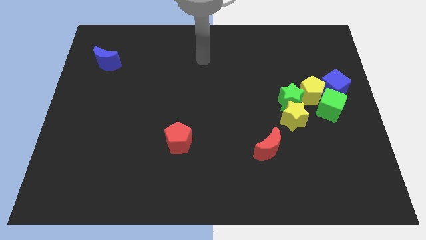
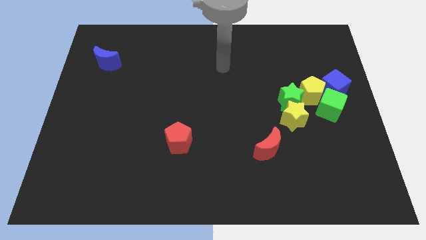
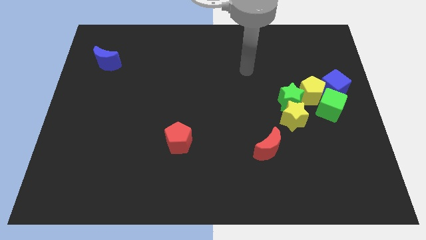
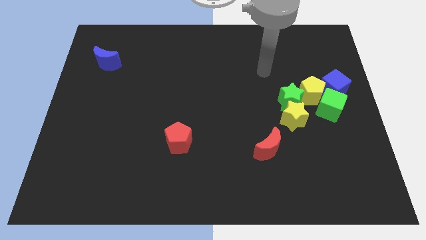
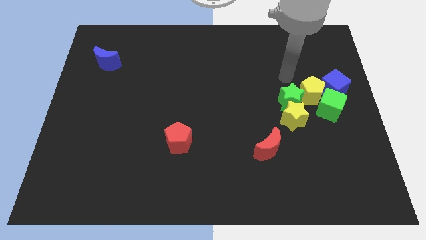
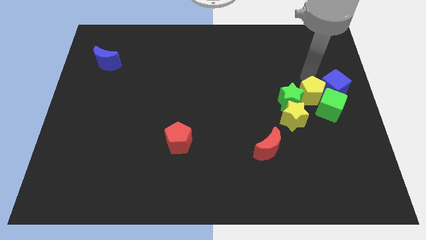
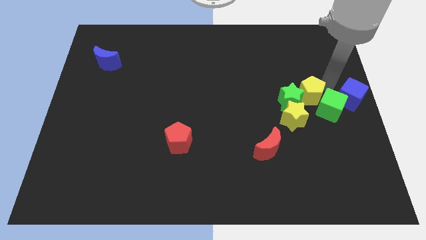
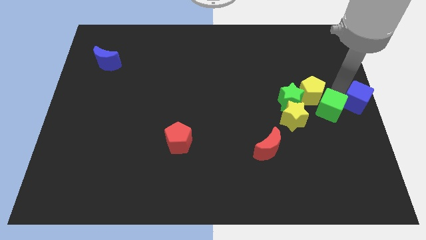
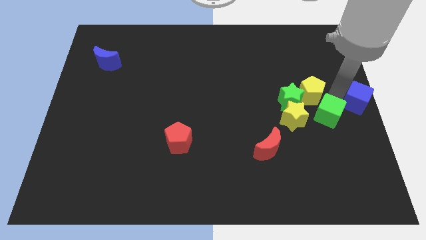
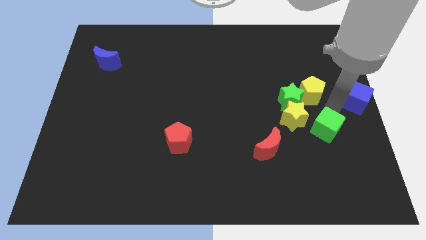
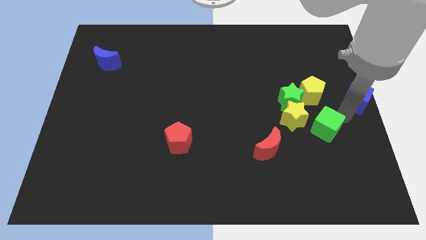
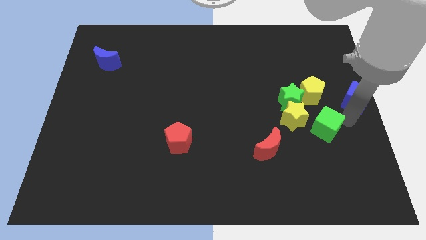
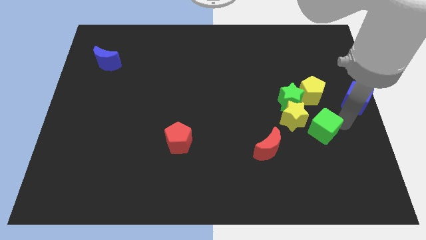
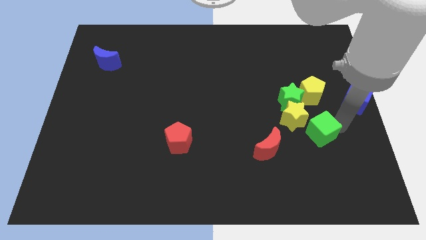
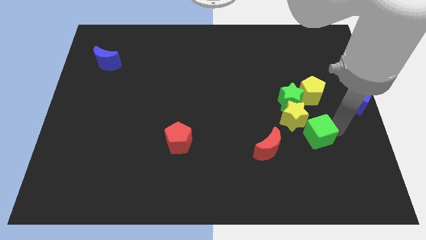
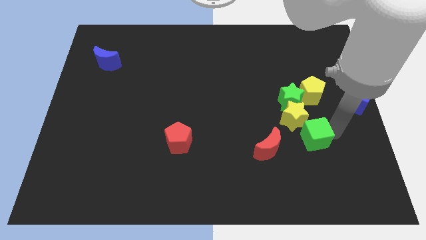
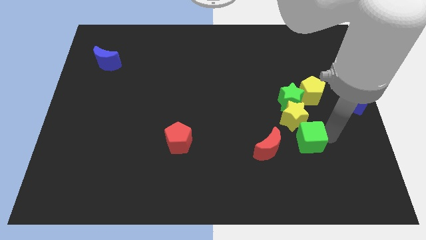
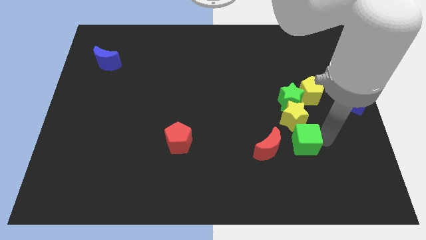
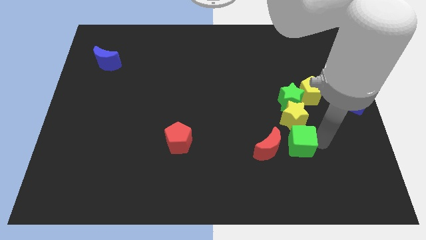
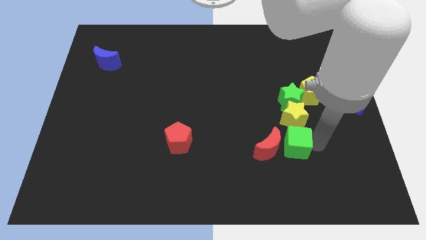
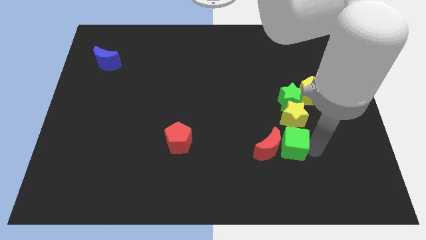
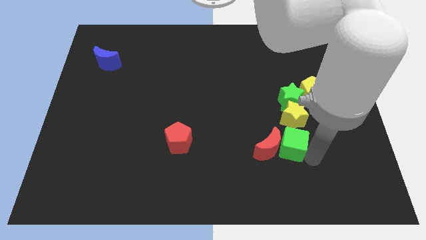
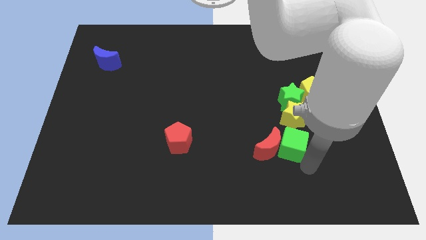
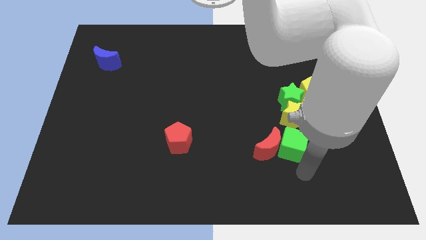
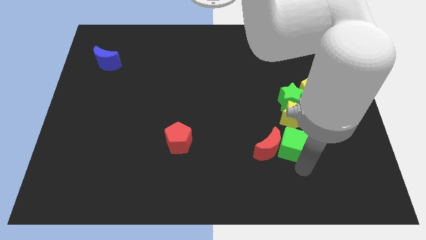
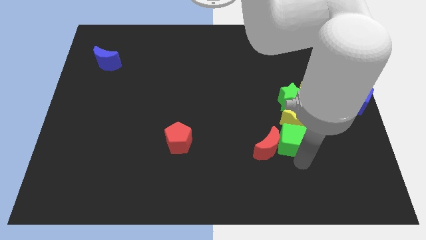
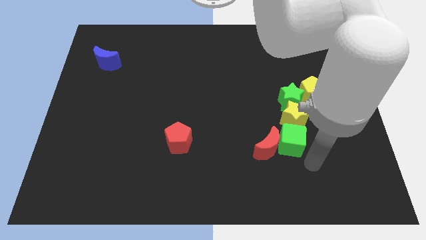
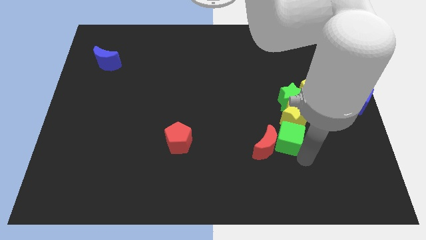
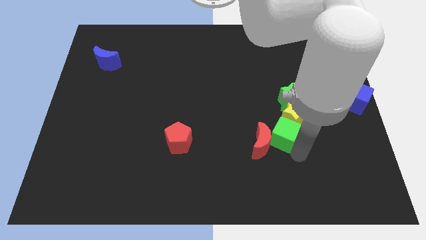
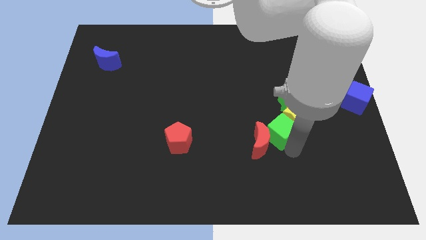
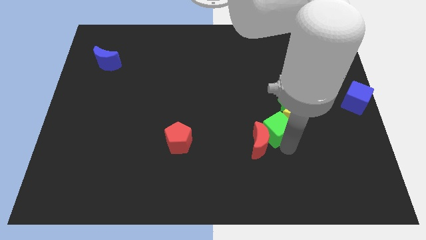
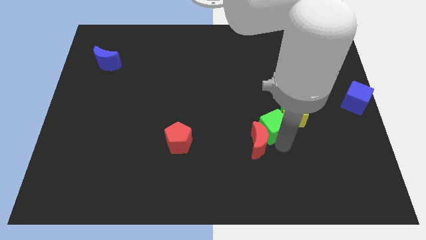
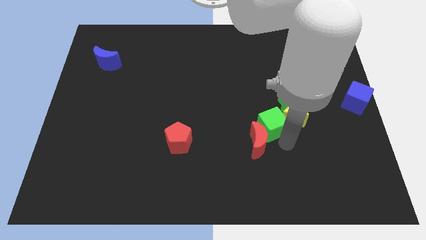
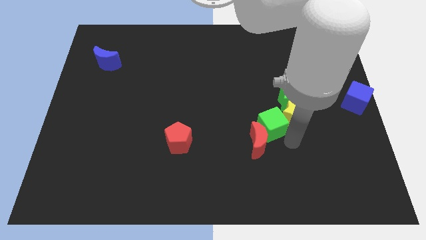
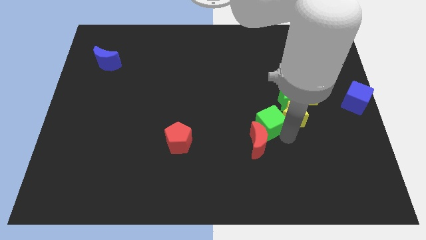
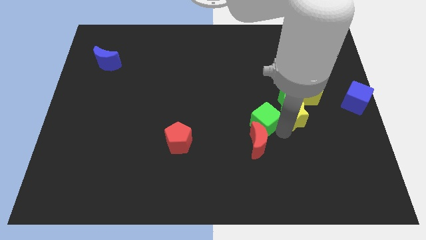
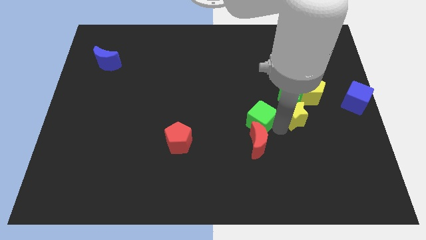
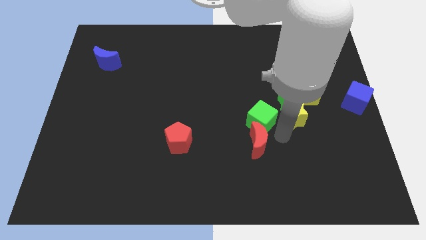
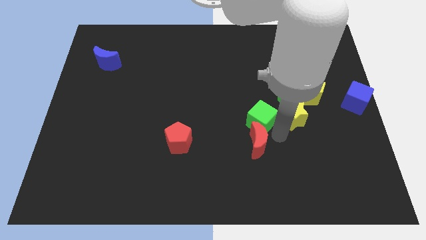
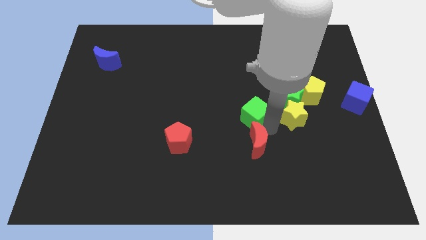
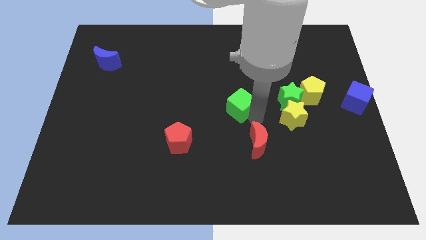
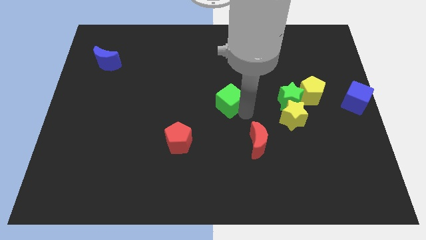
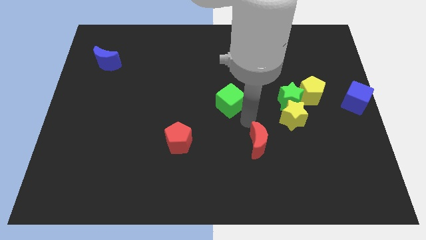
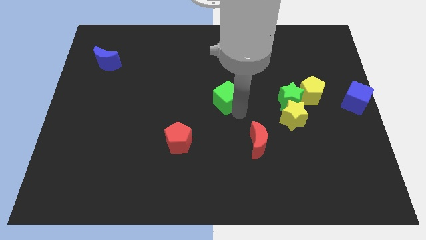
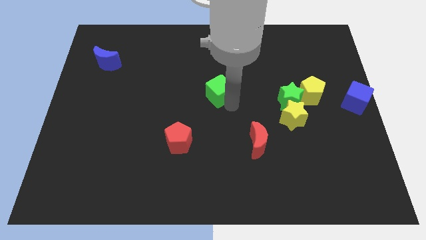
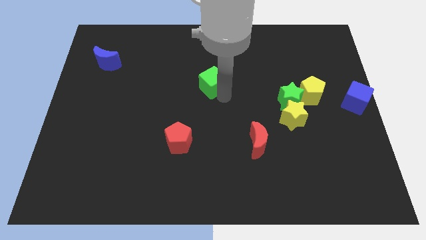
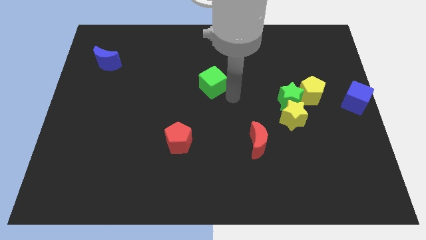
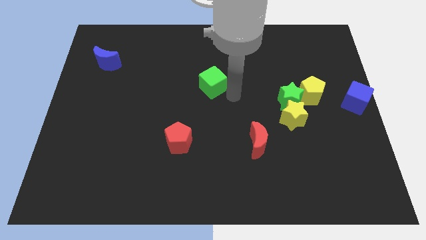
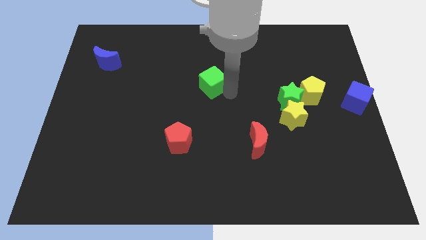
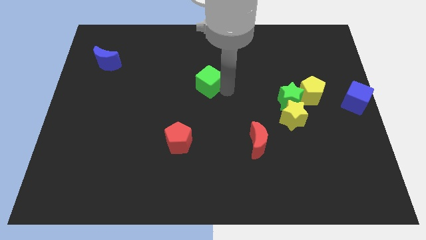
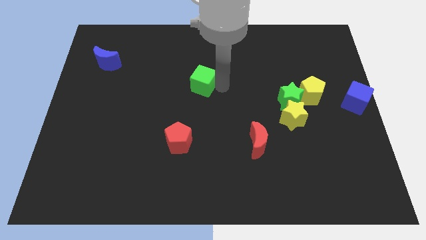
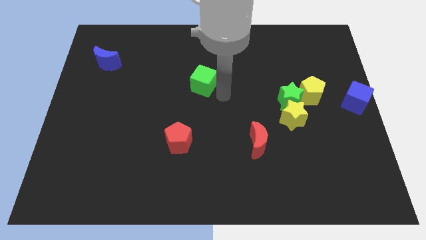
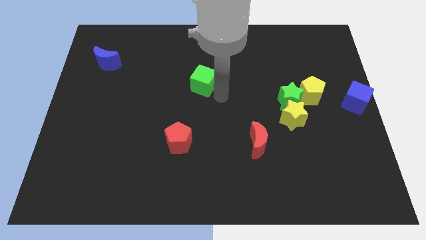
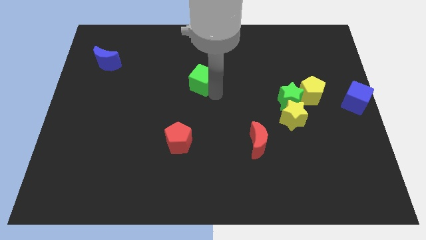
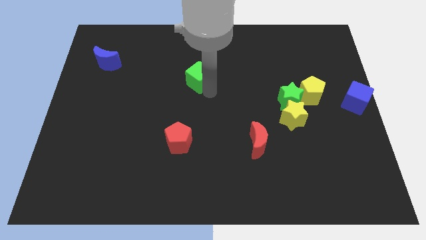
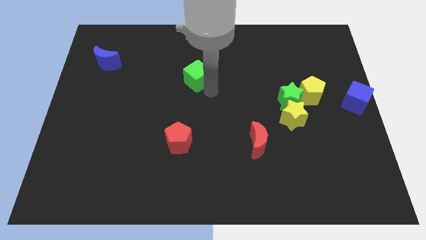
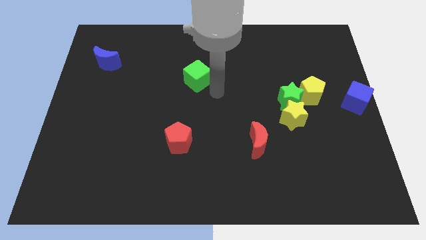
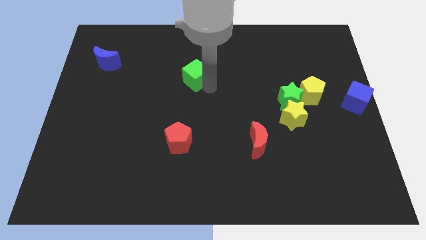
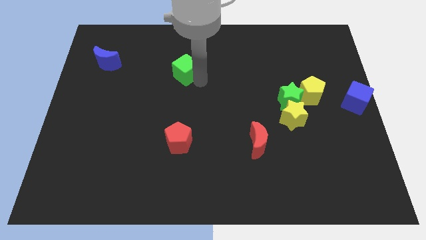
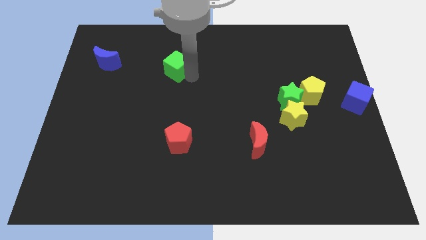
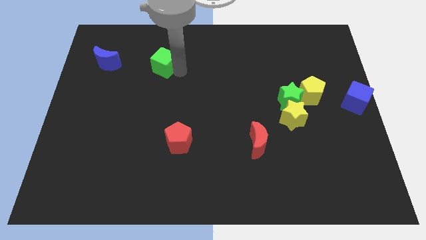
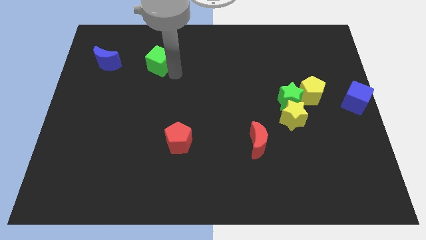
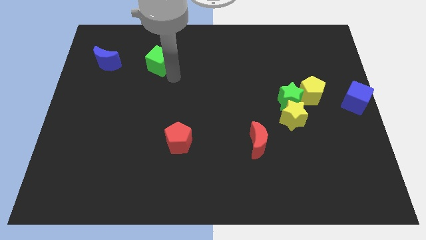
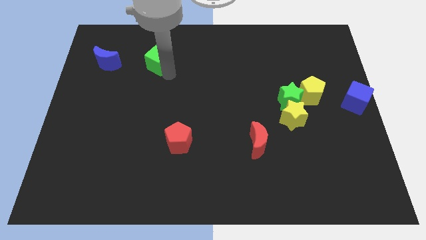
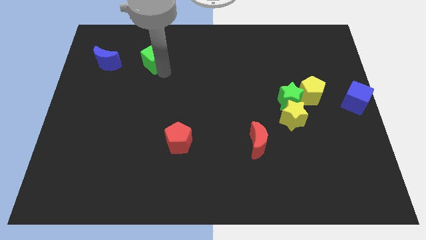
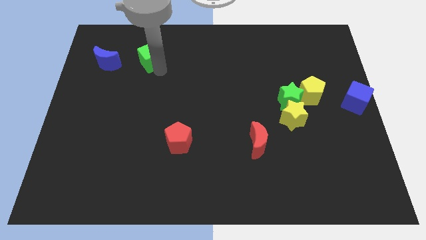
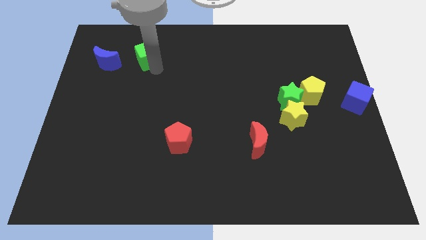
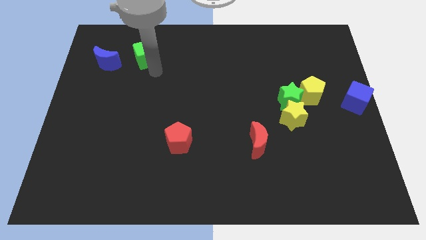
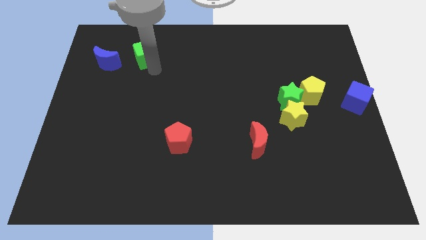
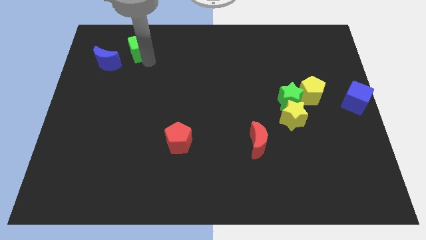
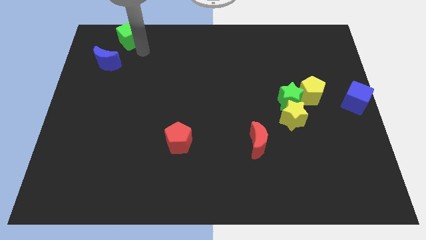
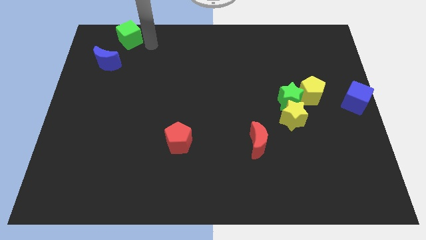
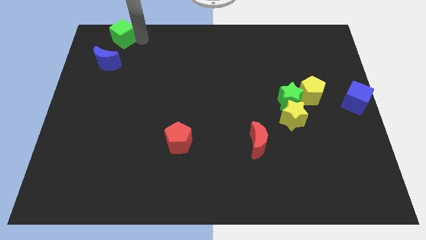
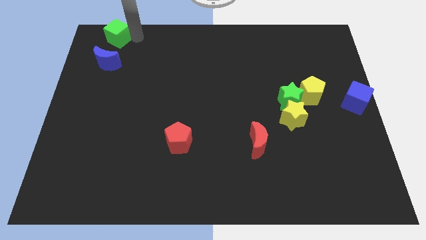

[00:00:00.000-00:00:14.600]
put the green cube to the top left corner
